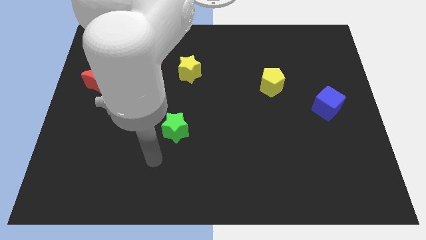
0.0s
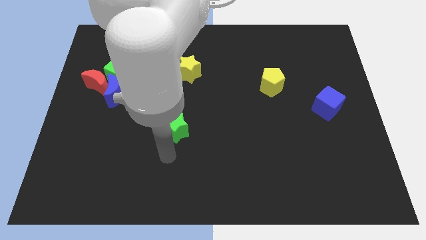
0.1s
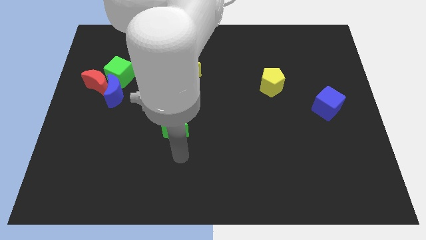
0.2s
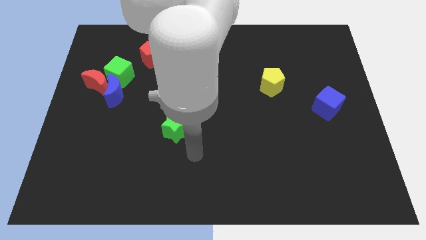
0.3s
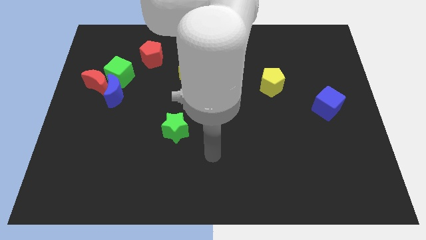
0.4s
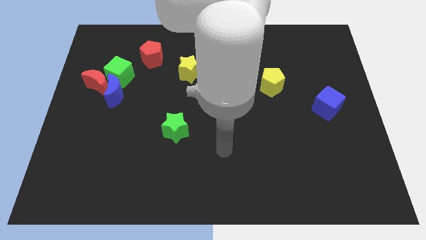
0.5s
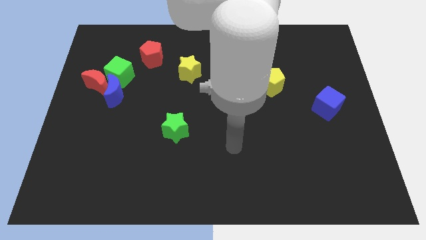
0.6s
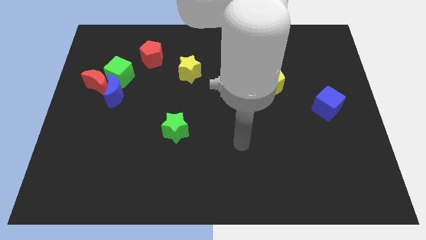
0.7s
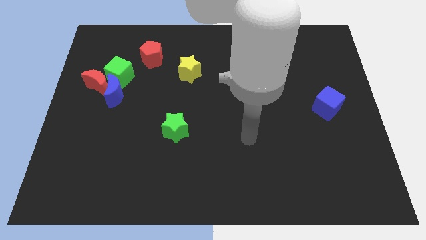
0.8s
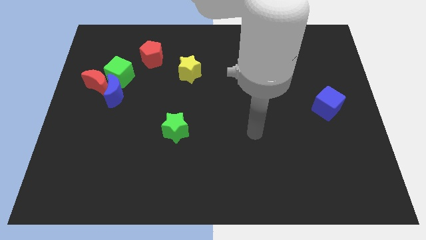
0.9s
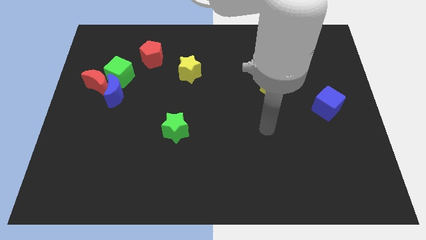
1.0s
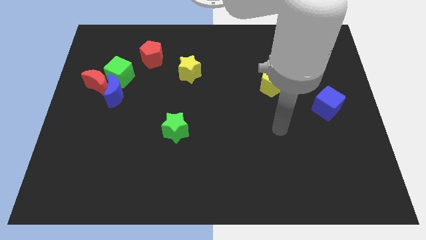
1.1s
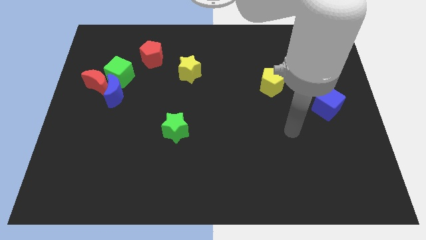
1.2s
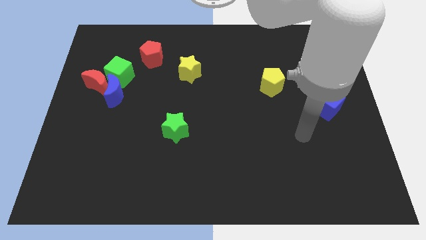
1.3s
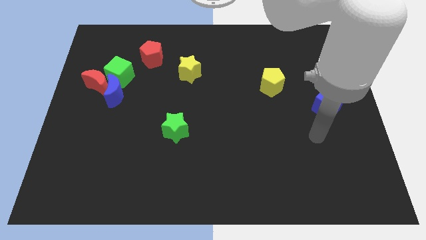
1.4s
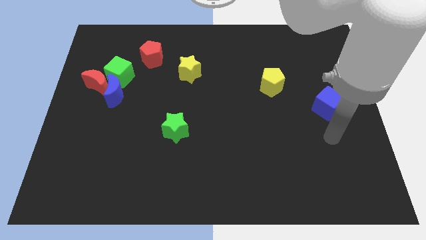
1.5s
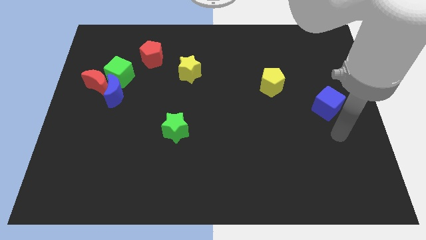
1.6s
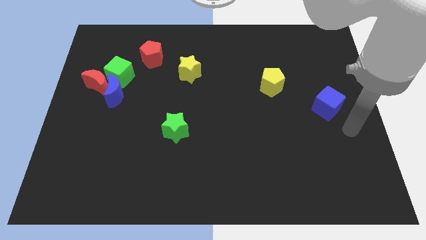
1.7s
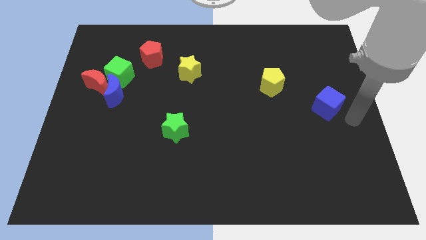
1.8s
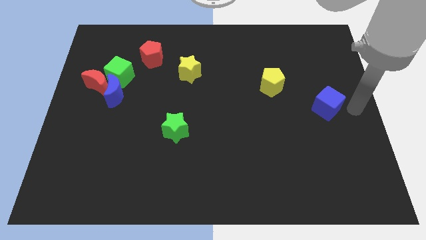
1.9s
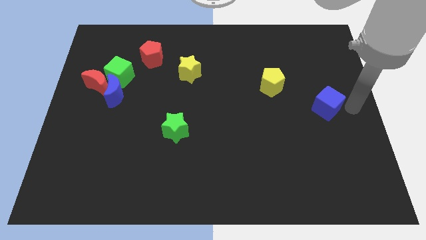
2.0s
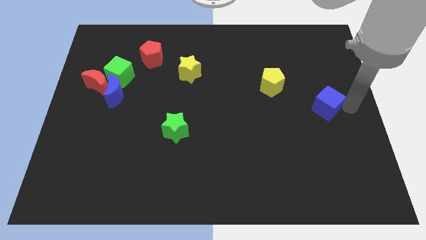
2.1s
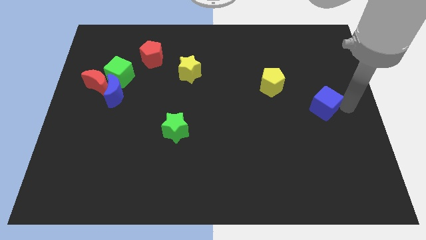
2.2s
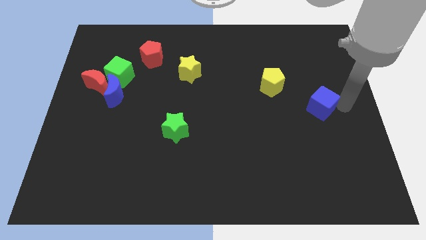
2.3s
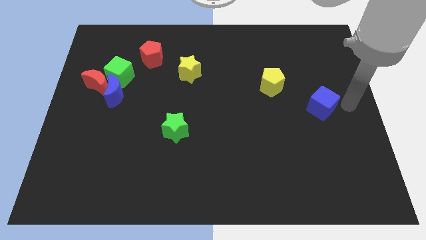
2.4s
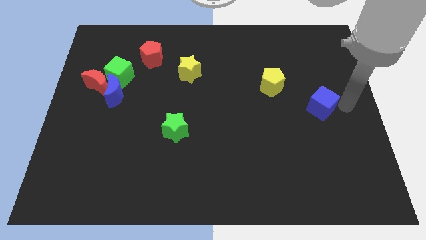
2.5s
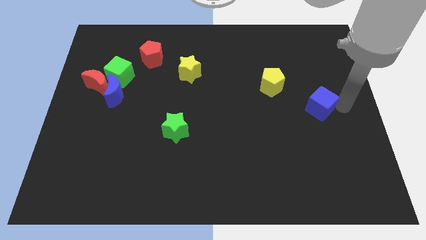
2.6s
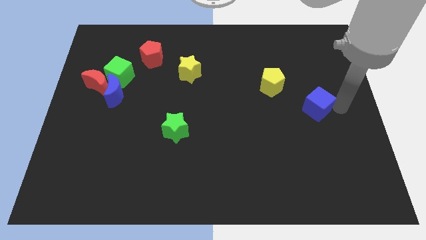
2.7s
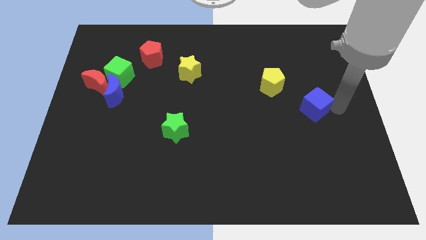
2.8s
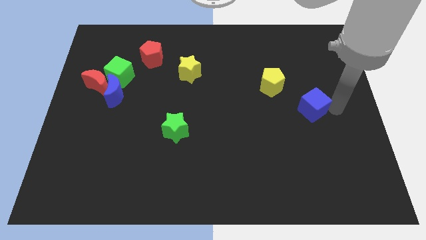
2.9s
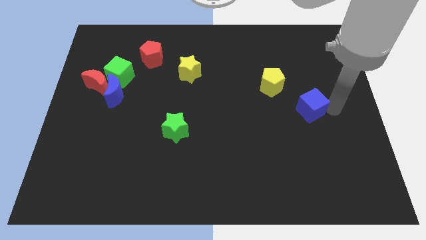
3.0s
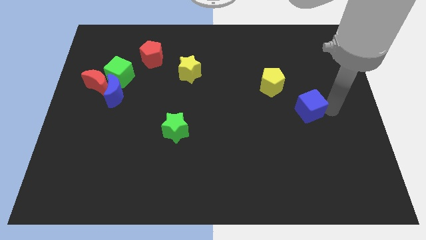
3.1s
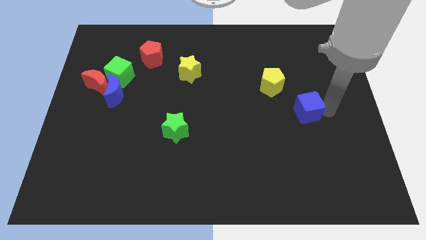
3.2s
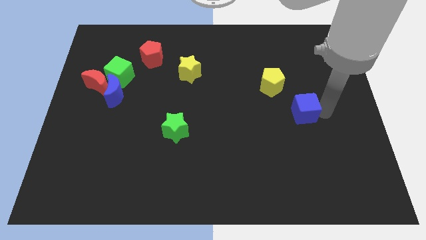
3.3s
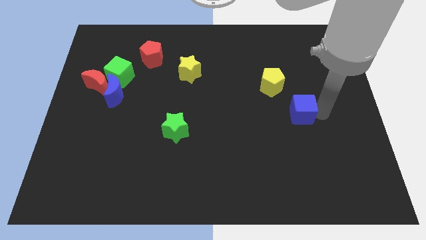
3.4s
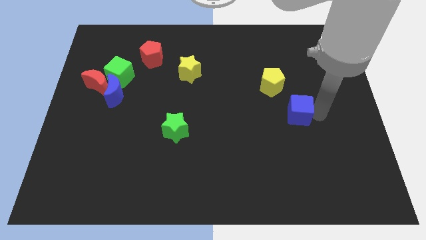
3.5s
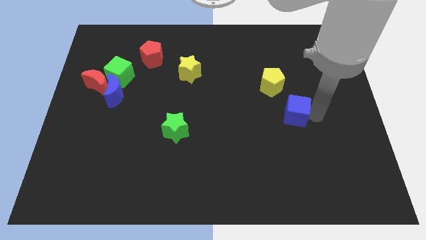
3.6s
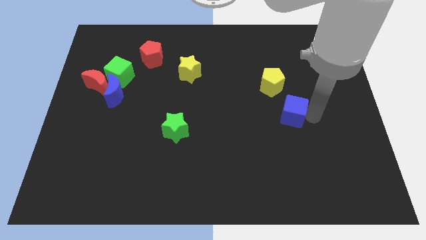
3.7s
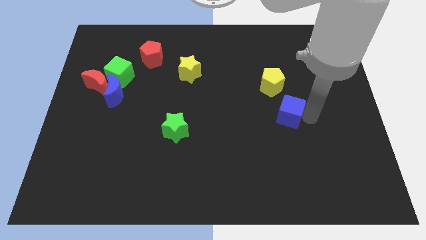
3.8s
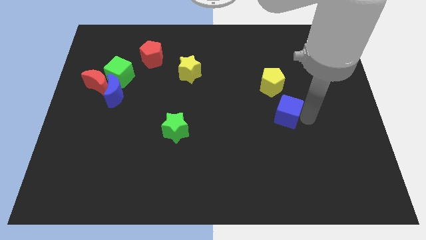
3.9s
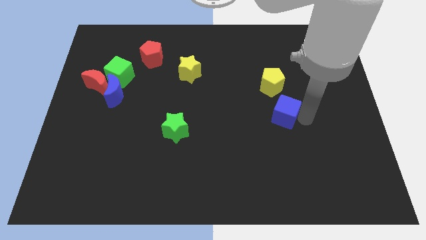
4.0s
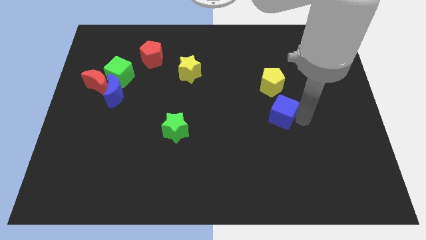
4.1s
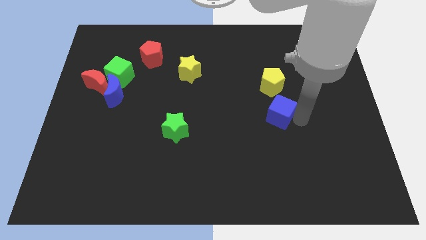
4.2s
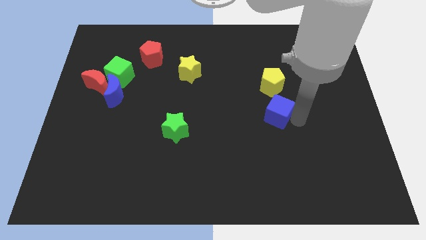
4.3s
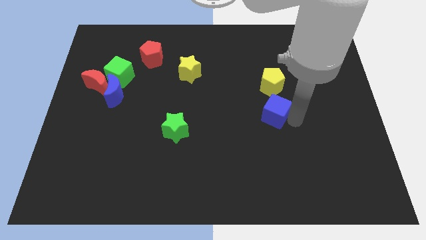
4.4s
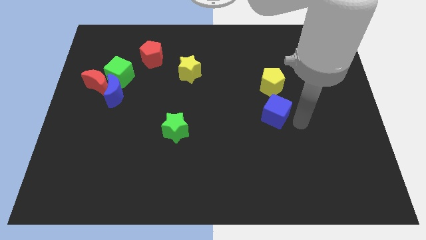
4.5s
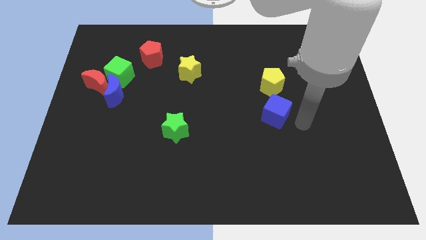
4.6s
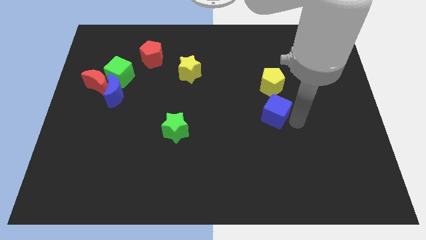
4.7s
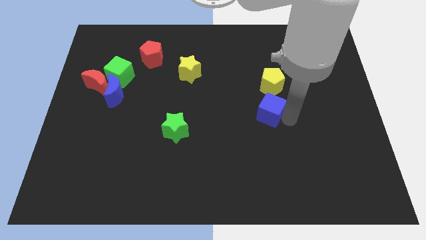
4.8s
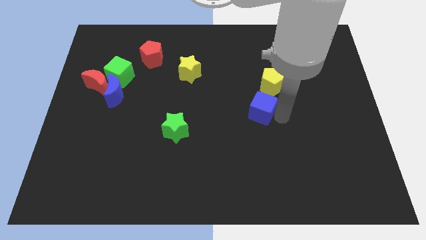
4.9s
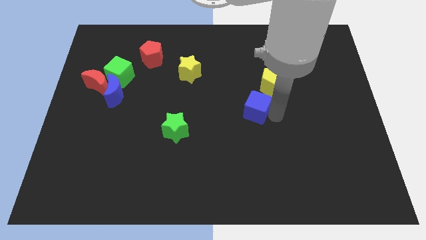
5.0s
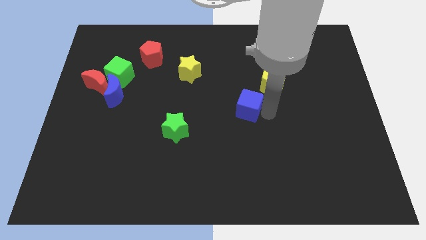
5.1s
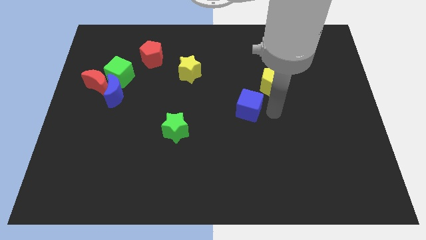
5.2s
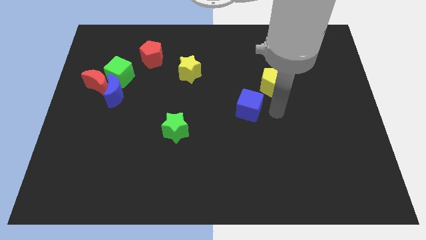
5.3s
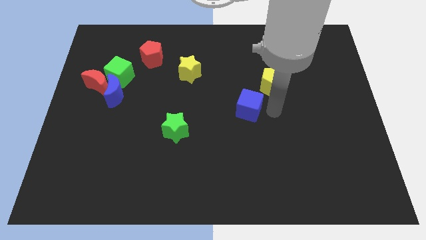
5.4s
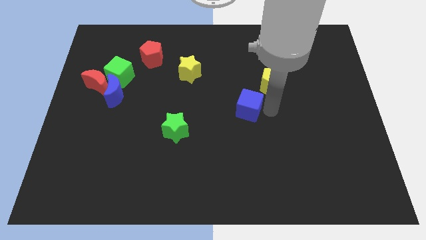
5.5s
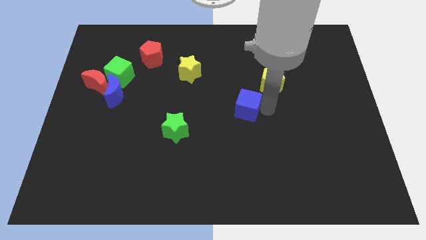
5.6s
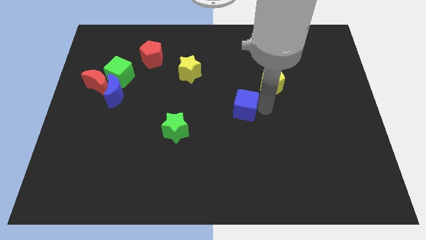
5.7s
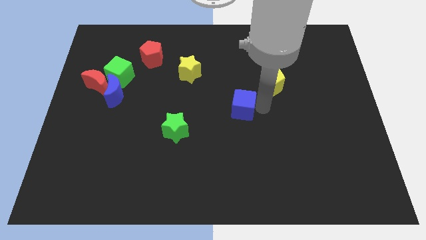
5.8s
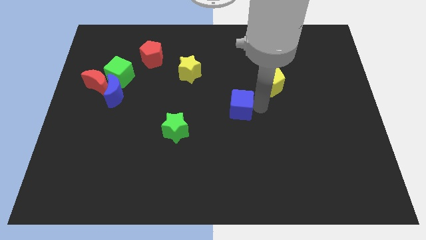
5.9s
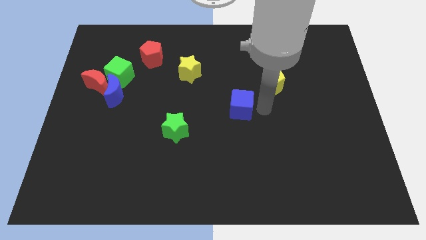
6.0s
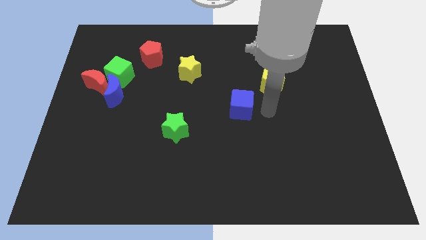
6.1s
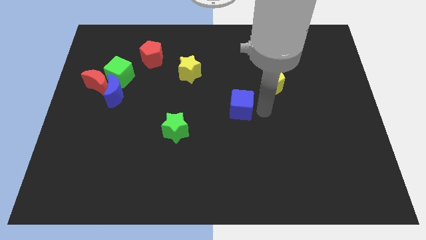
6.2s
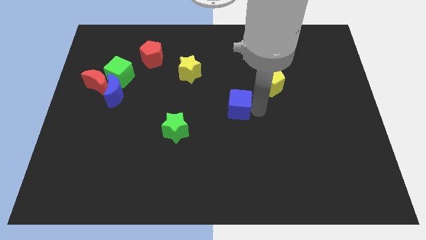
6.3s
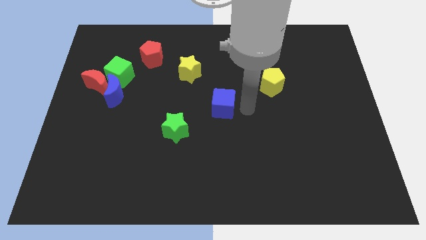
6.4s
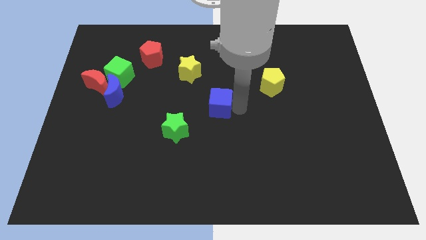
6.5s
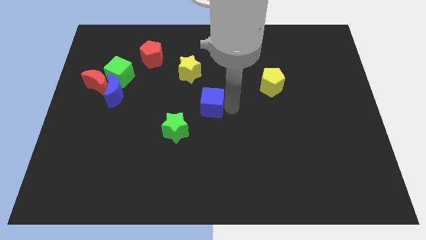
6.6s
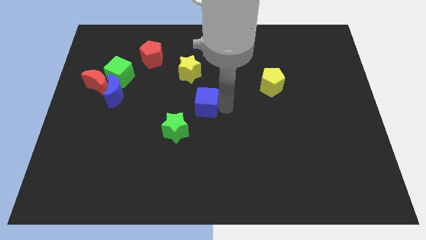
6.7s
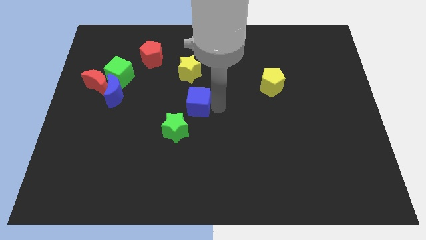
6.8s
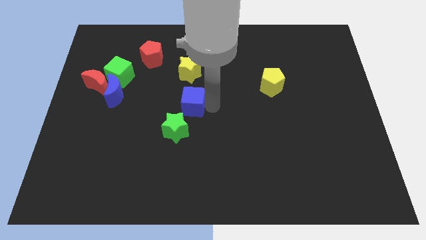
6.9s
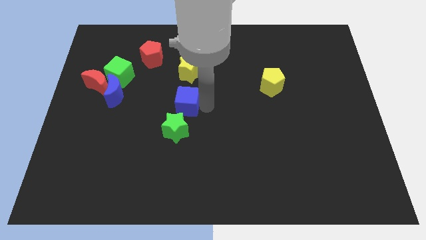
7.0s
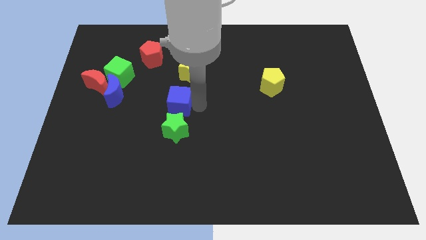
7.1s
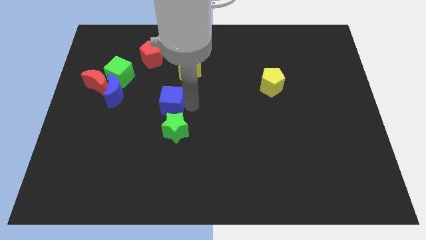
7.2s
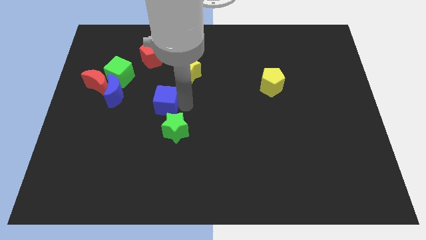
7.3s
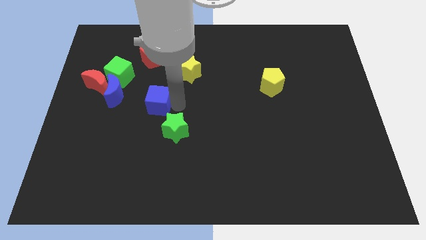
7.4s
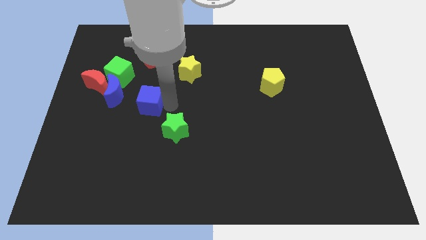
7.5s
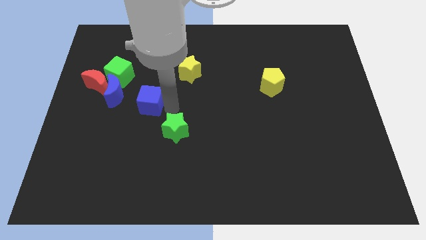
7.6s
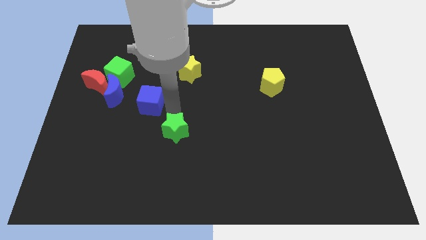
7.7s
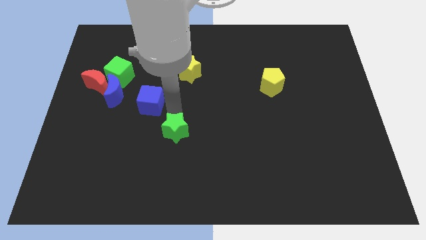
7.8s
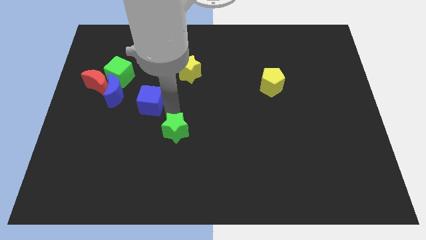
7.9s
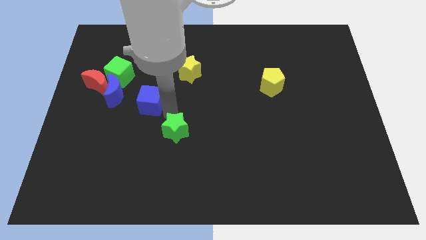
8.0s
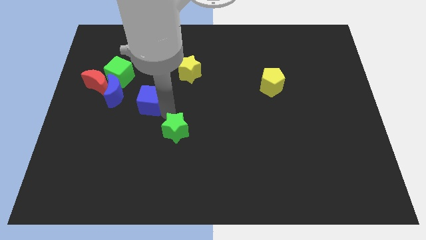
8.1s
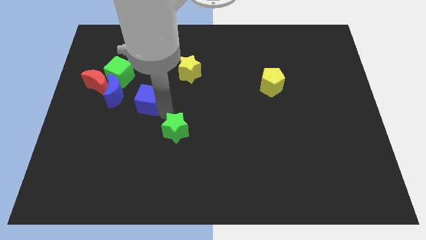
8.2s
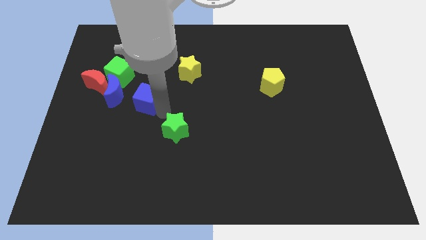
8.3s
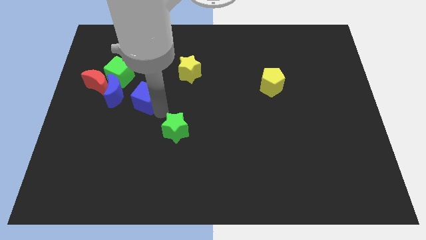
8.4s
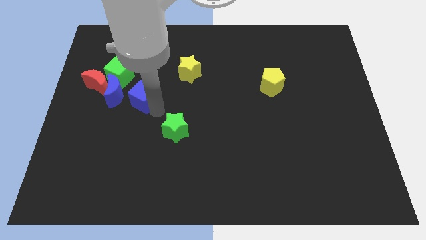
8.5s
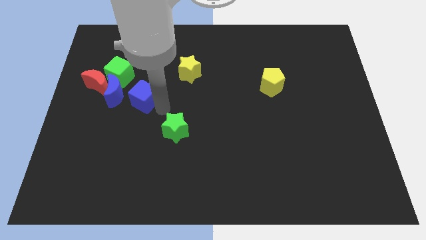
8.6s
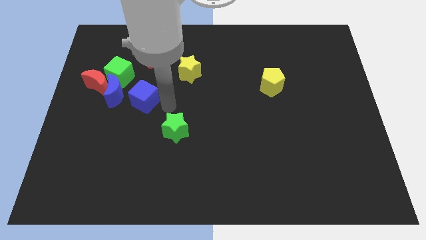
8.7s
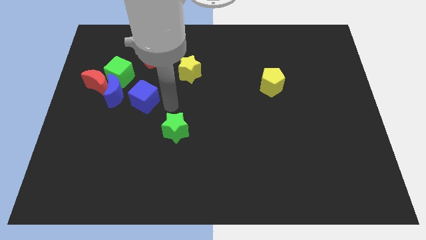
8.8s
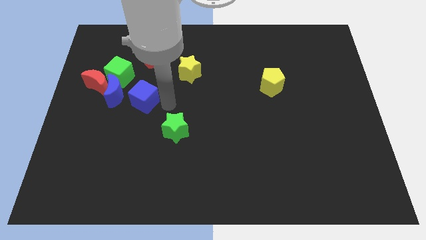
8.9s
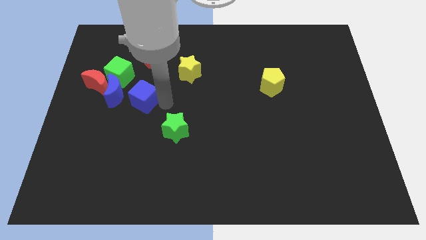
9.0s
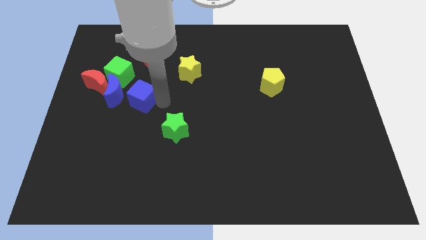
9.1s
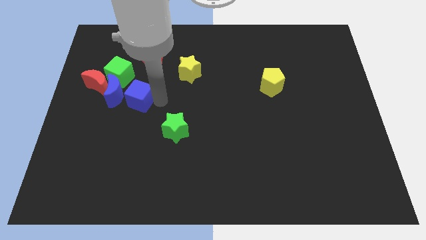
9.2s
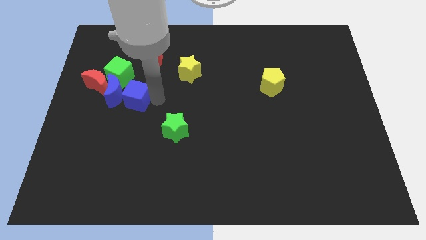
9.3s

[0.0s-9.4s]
slide the blue cube towards the blue moon
